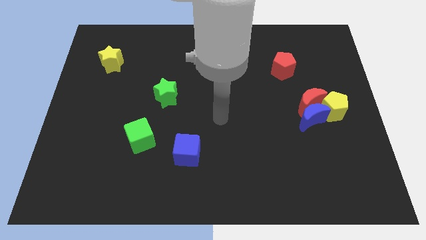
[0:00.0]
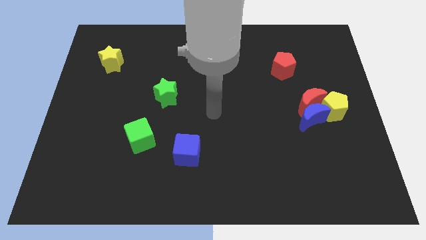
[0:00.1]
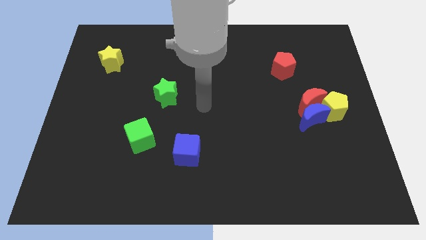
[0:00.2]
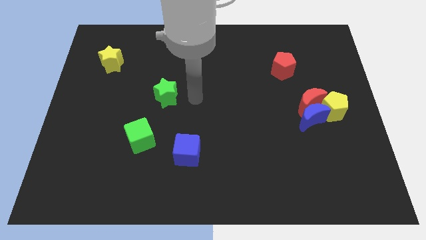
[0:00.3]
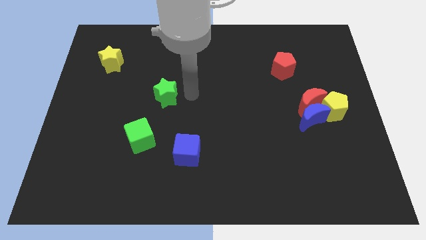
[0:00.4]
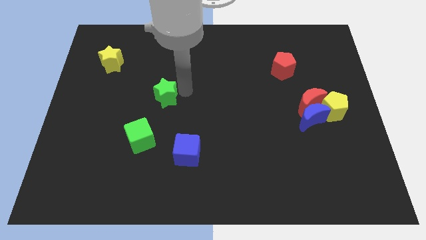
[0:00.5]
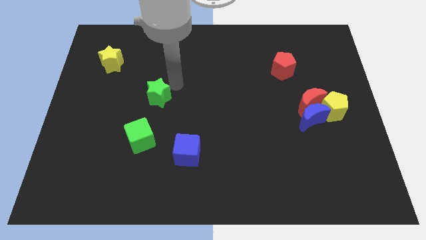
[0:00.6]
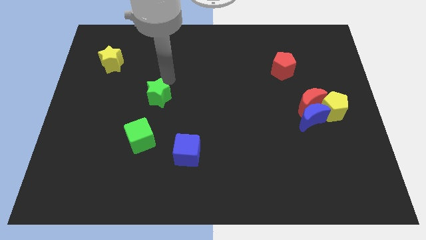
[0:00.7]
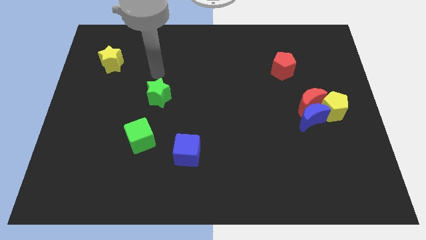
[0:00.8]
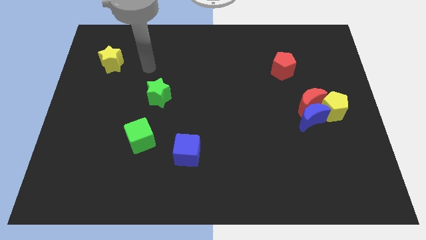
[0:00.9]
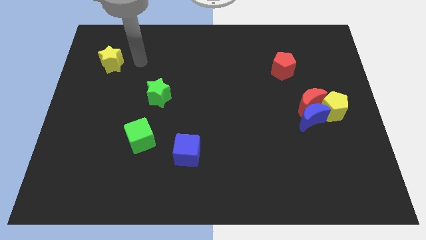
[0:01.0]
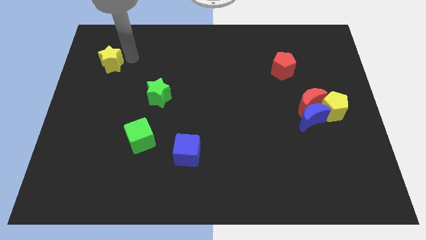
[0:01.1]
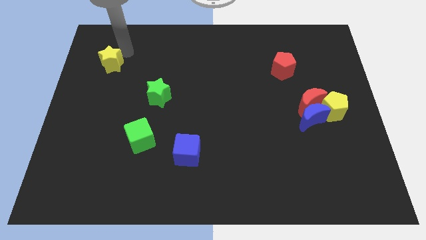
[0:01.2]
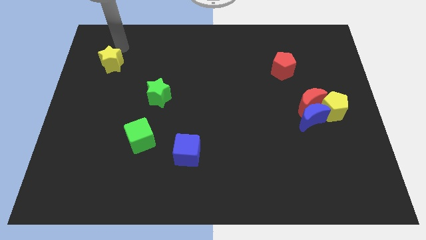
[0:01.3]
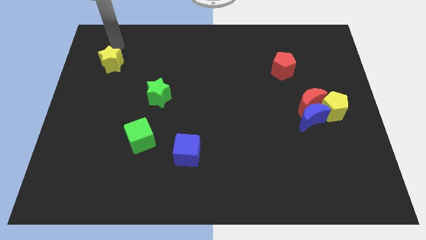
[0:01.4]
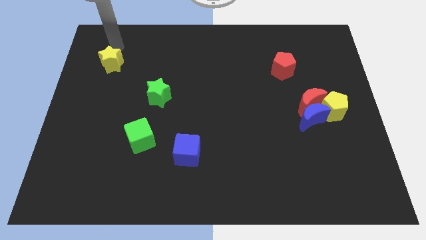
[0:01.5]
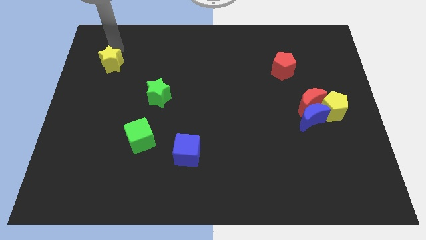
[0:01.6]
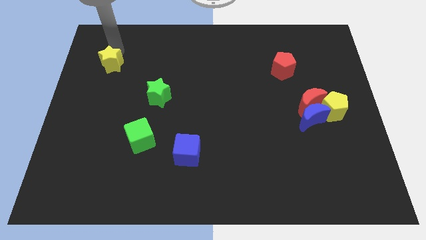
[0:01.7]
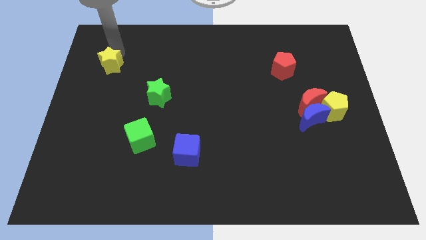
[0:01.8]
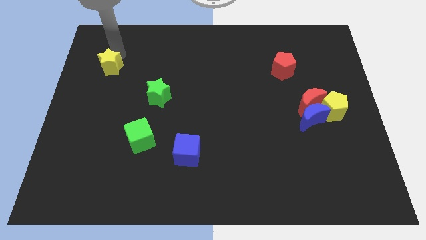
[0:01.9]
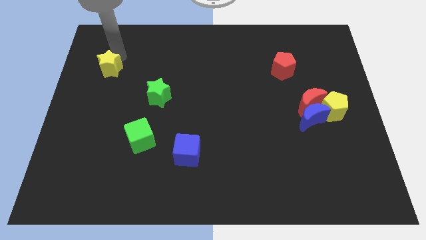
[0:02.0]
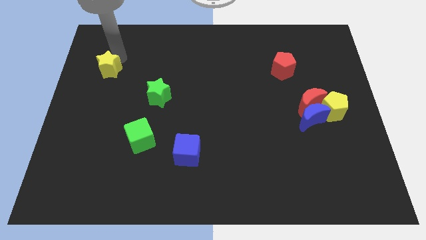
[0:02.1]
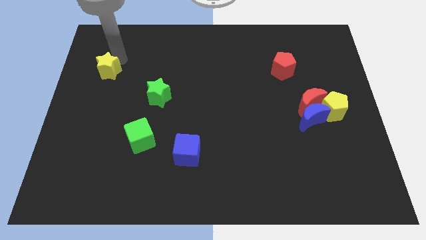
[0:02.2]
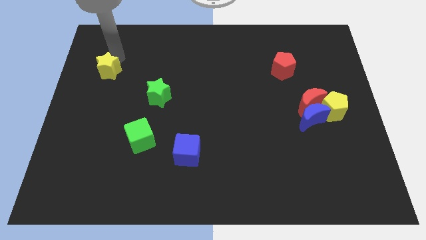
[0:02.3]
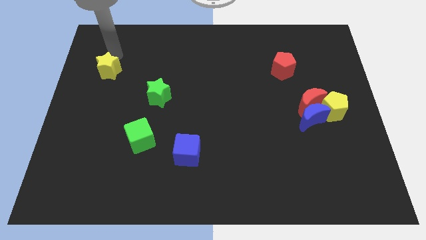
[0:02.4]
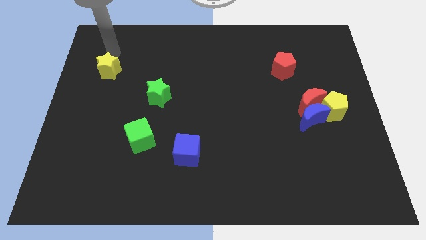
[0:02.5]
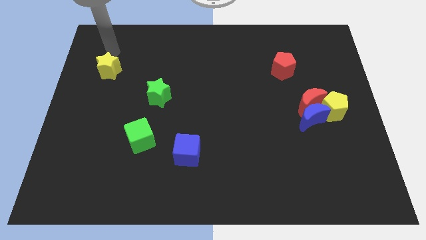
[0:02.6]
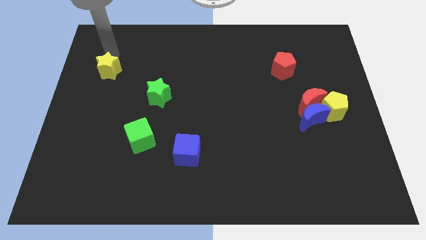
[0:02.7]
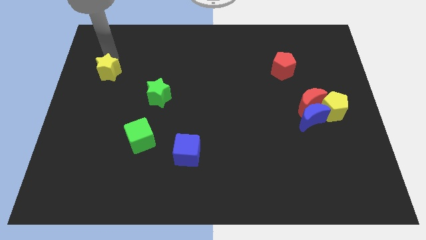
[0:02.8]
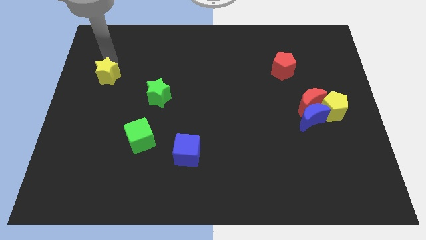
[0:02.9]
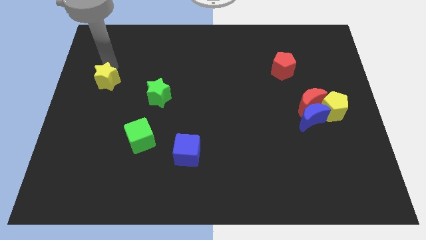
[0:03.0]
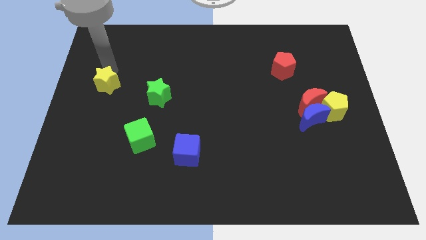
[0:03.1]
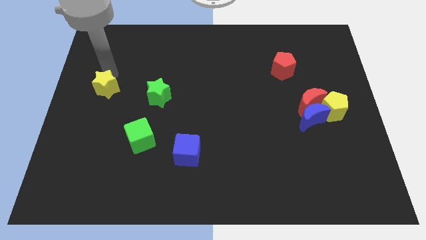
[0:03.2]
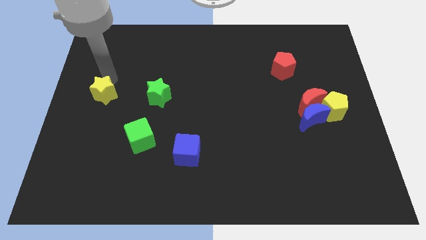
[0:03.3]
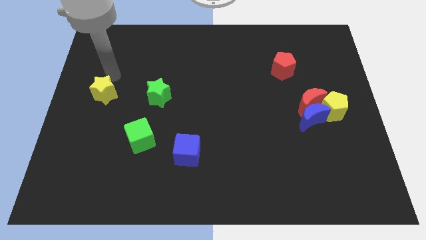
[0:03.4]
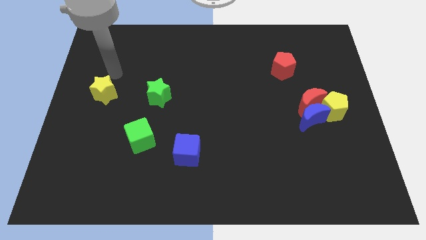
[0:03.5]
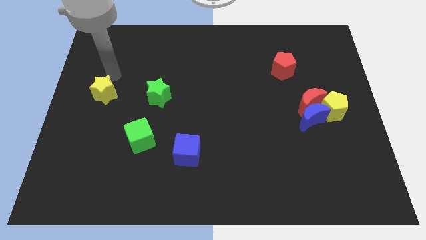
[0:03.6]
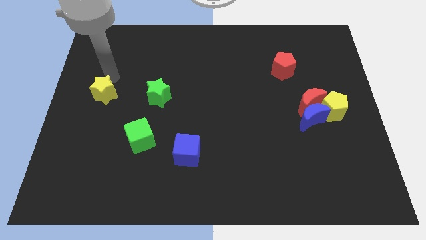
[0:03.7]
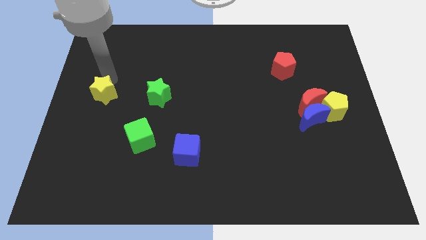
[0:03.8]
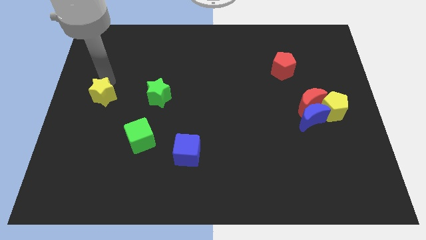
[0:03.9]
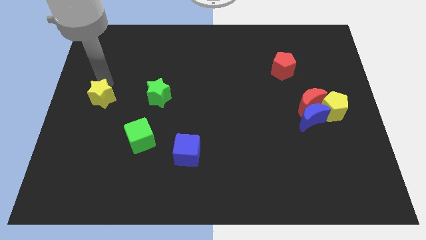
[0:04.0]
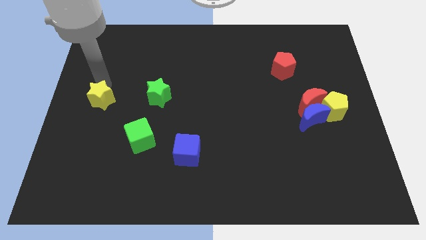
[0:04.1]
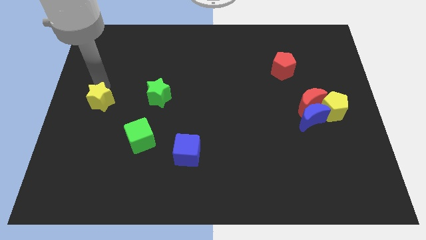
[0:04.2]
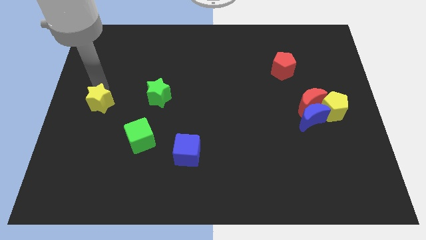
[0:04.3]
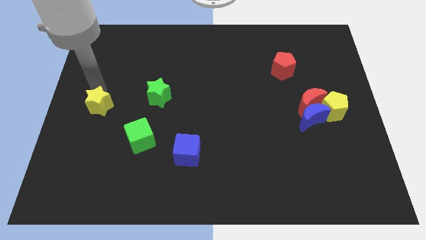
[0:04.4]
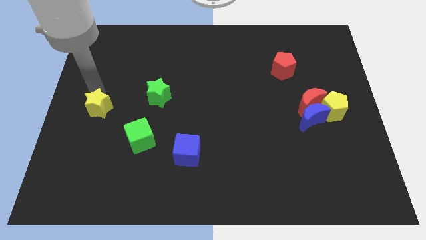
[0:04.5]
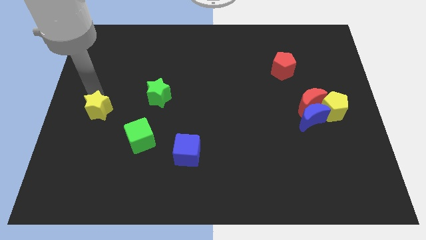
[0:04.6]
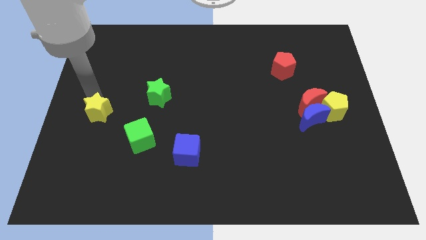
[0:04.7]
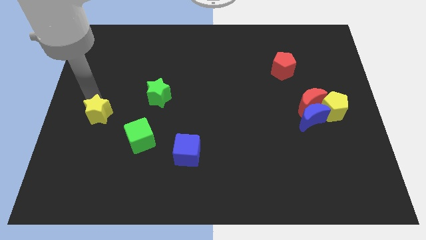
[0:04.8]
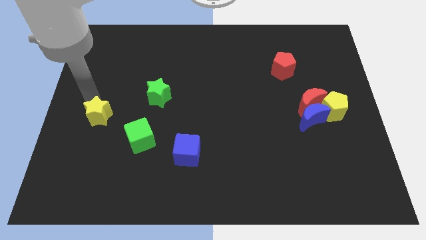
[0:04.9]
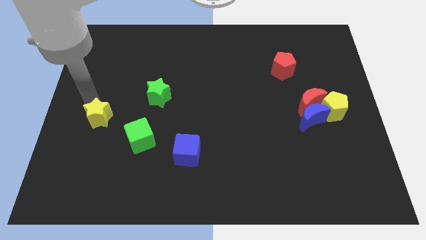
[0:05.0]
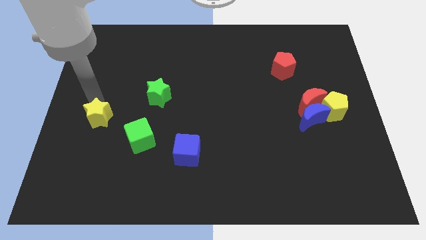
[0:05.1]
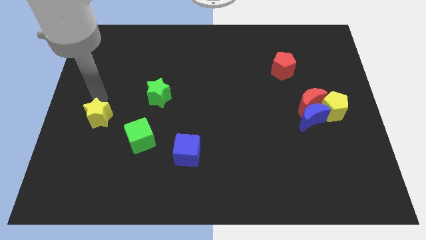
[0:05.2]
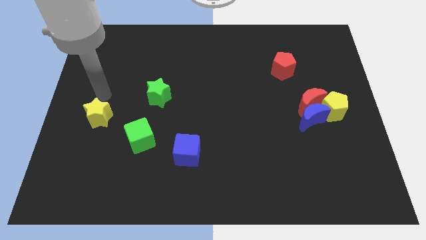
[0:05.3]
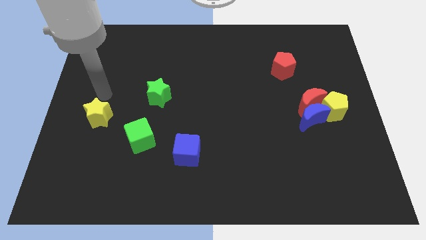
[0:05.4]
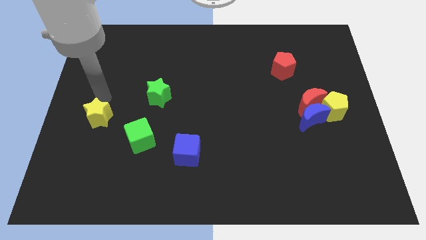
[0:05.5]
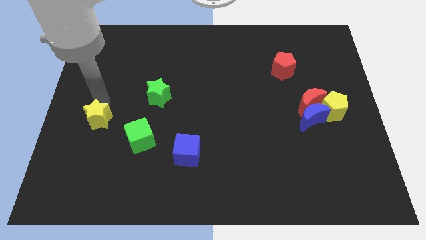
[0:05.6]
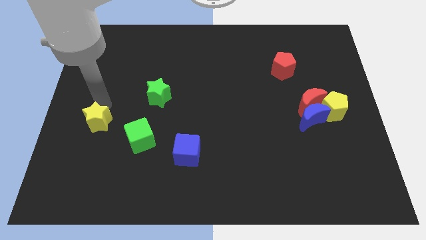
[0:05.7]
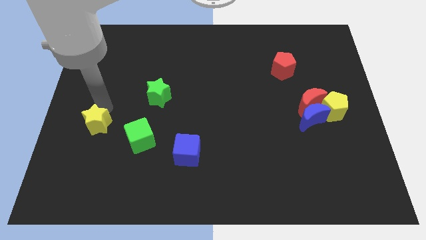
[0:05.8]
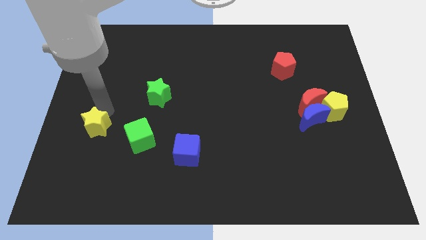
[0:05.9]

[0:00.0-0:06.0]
move the yellow star down

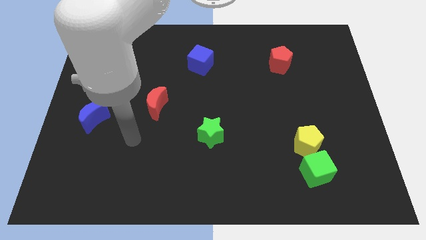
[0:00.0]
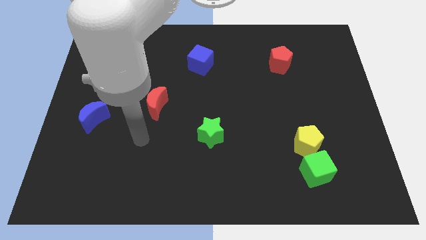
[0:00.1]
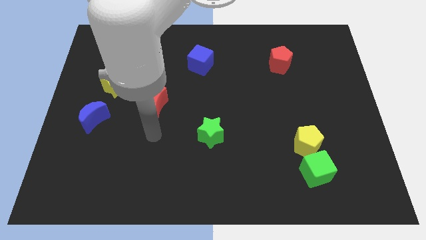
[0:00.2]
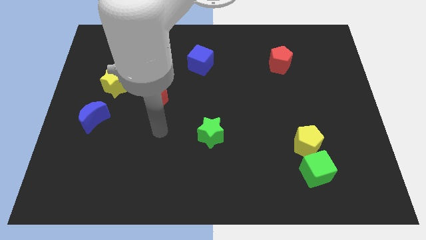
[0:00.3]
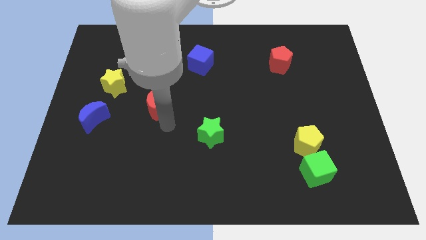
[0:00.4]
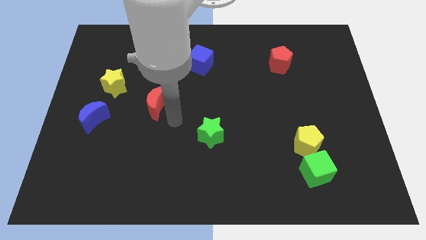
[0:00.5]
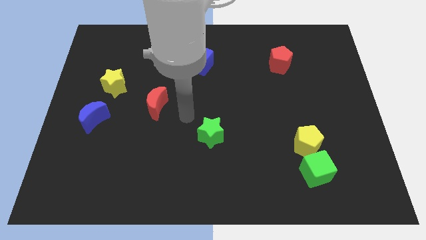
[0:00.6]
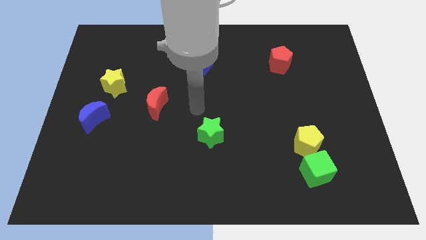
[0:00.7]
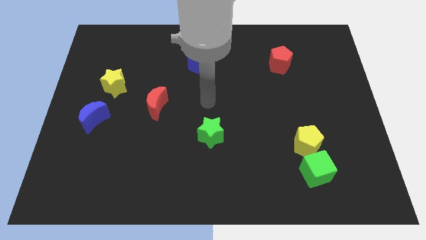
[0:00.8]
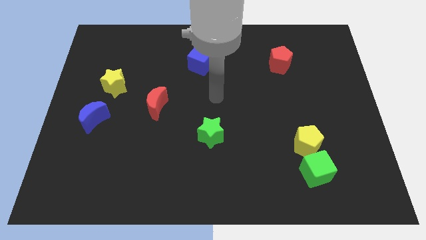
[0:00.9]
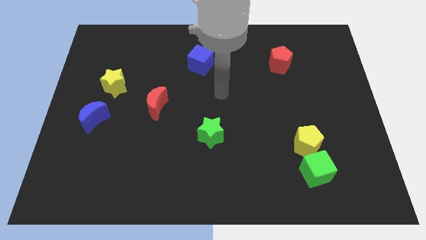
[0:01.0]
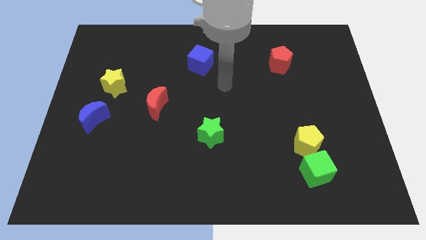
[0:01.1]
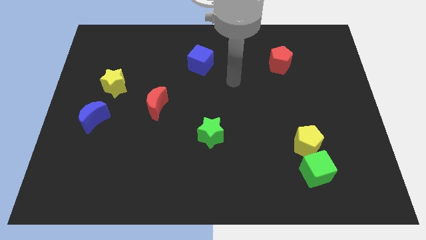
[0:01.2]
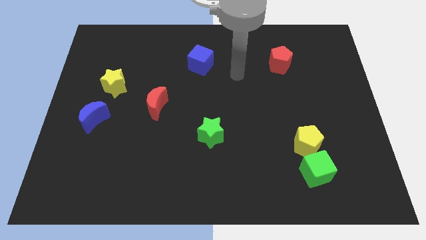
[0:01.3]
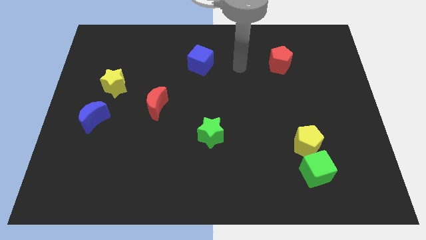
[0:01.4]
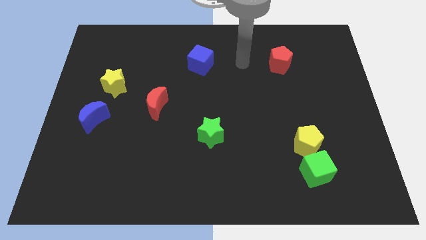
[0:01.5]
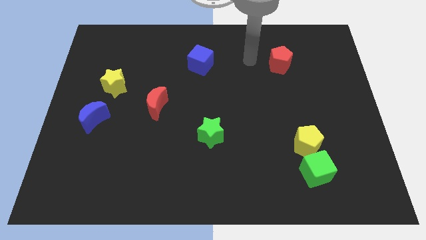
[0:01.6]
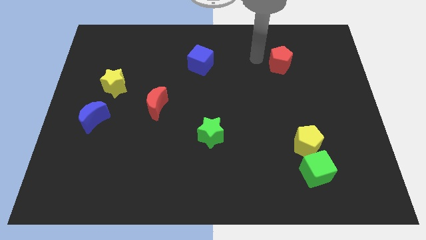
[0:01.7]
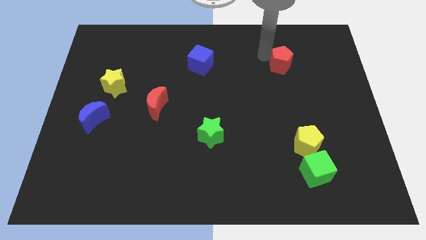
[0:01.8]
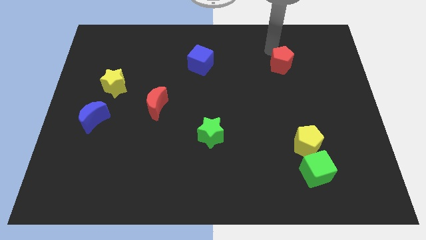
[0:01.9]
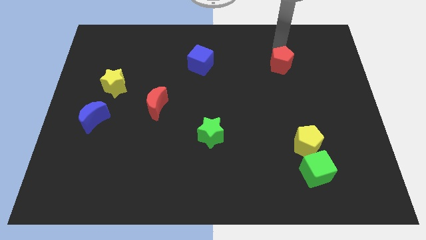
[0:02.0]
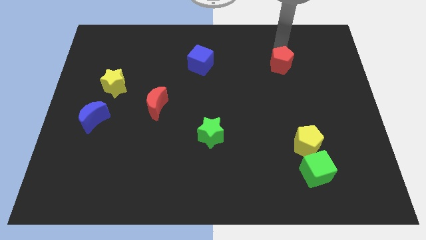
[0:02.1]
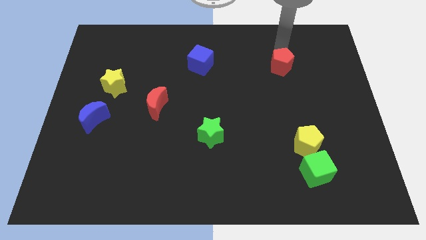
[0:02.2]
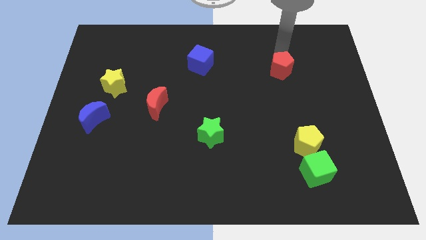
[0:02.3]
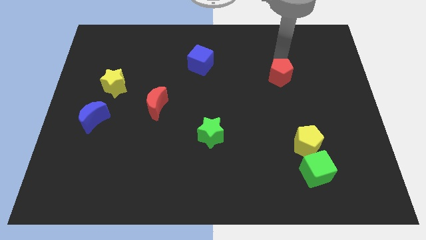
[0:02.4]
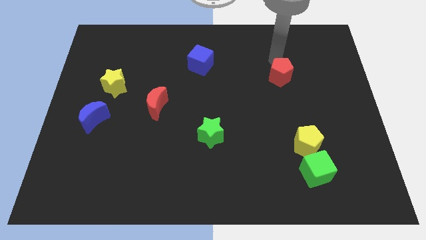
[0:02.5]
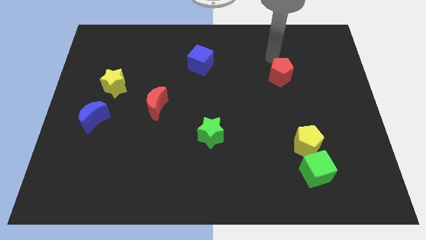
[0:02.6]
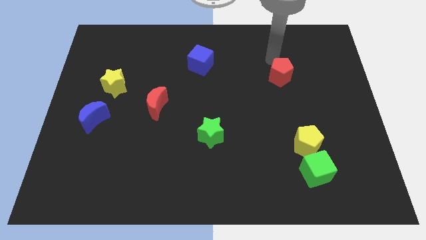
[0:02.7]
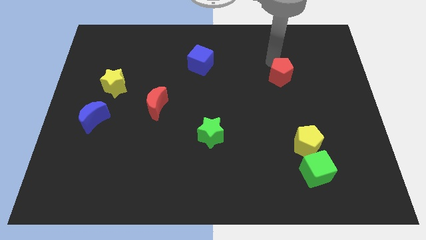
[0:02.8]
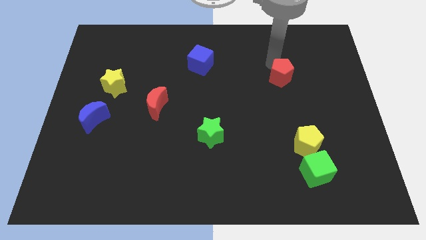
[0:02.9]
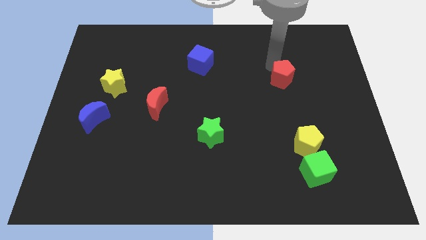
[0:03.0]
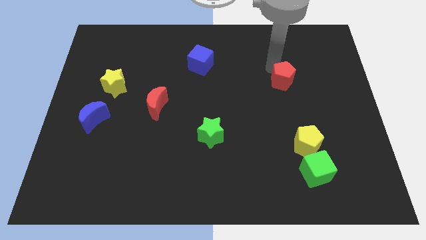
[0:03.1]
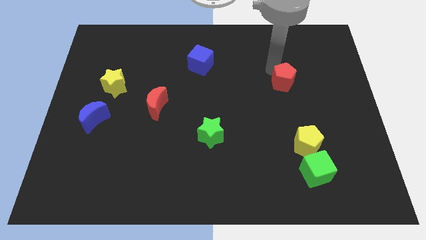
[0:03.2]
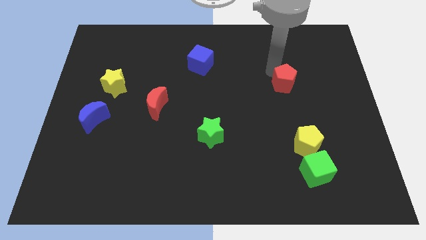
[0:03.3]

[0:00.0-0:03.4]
move the red pentagon down a bit
